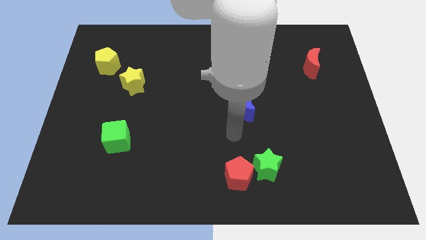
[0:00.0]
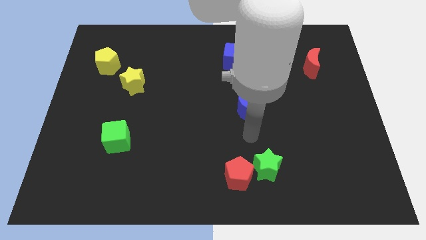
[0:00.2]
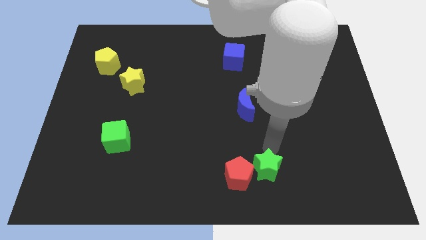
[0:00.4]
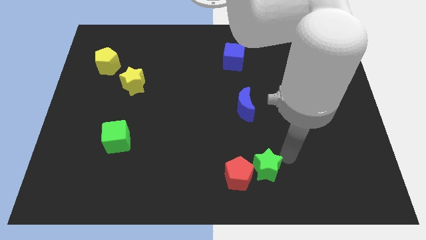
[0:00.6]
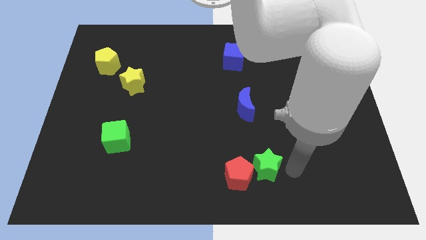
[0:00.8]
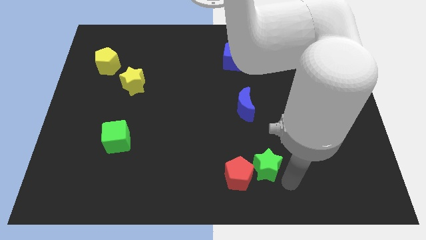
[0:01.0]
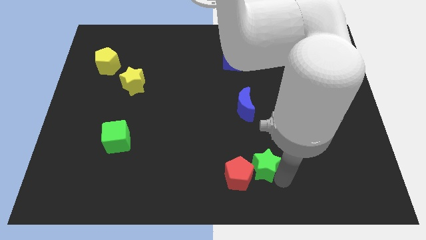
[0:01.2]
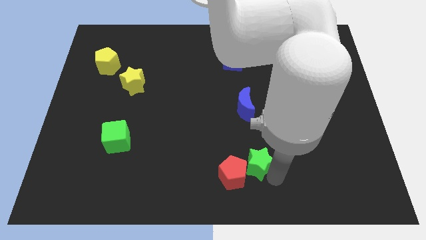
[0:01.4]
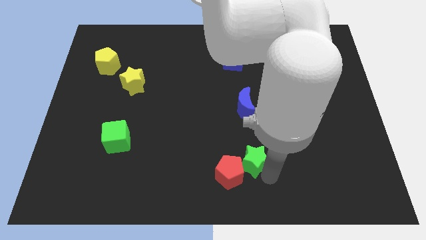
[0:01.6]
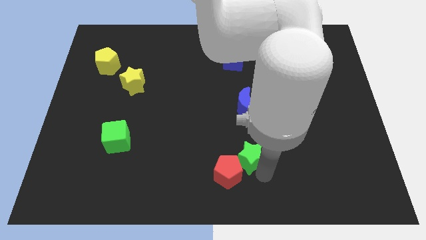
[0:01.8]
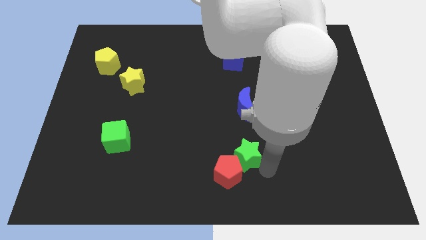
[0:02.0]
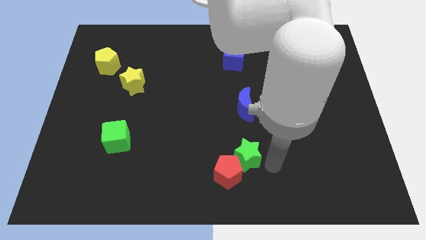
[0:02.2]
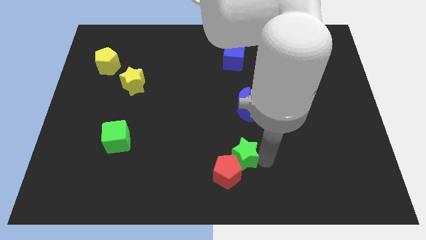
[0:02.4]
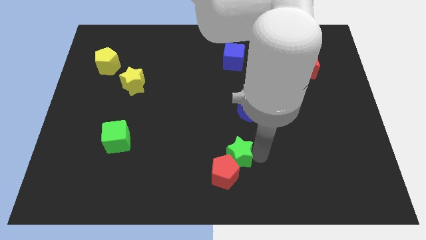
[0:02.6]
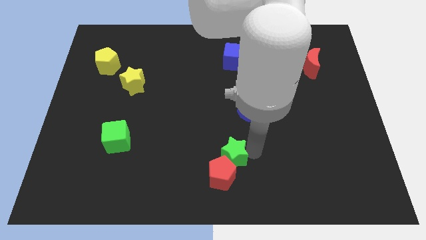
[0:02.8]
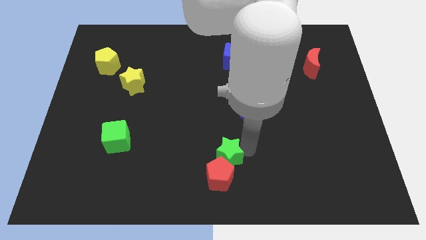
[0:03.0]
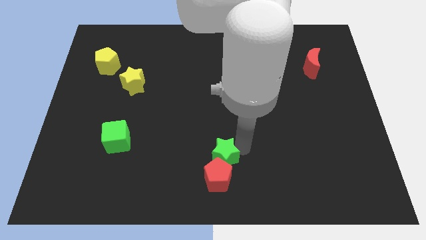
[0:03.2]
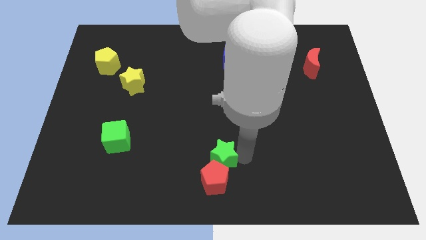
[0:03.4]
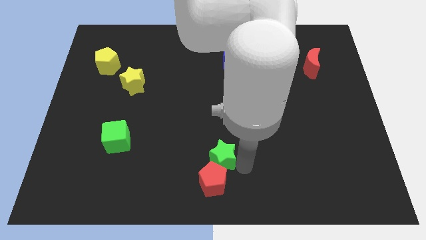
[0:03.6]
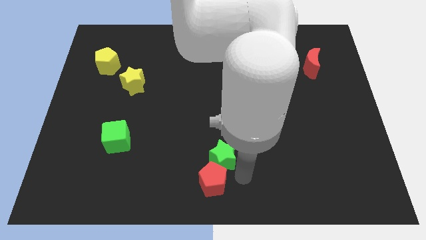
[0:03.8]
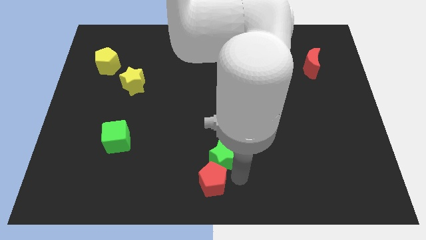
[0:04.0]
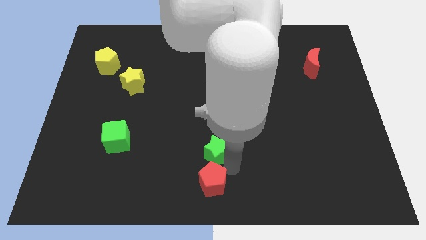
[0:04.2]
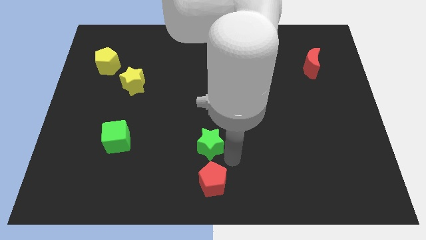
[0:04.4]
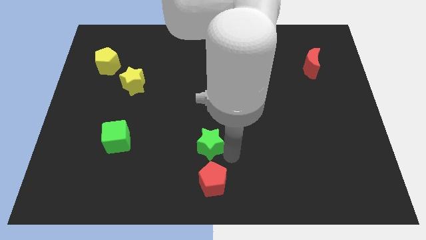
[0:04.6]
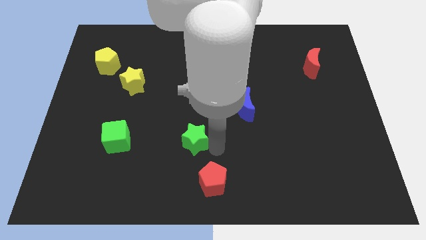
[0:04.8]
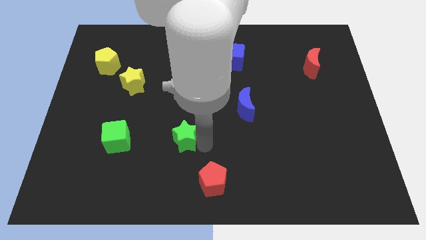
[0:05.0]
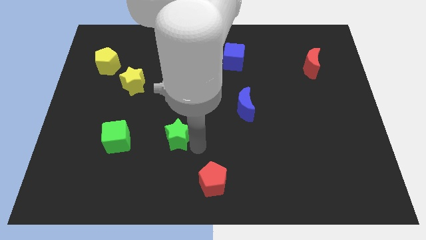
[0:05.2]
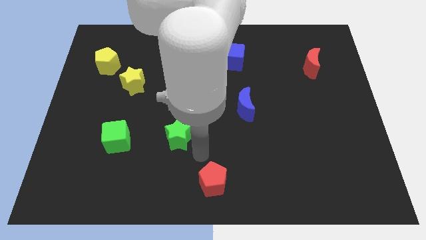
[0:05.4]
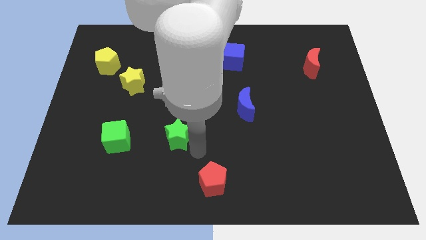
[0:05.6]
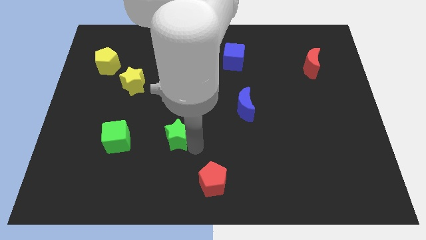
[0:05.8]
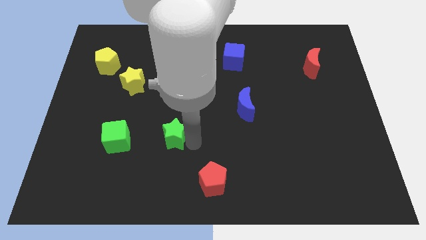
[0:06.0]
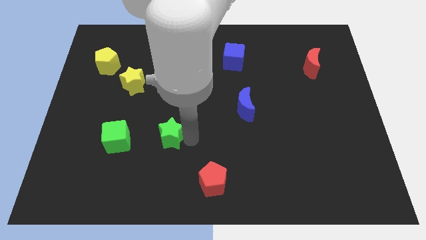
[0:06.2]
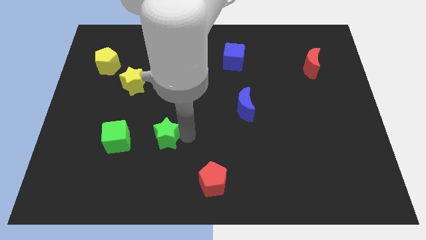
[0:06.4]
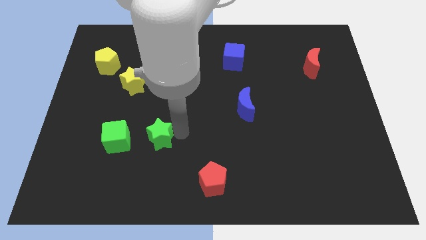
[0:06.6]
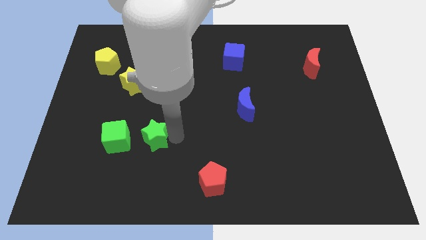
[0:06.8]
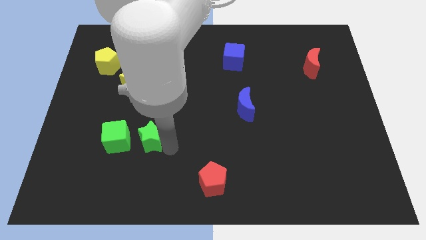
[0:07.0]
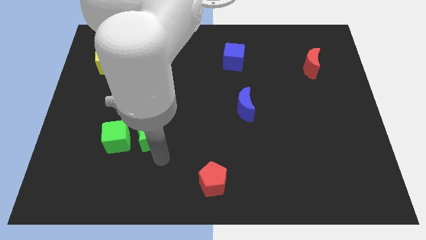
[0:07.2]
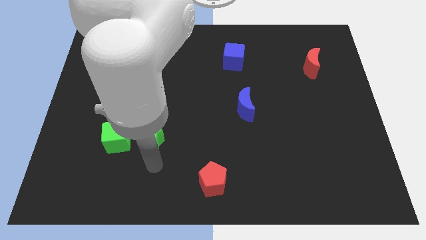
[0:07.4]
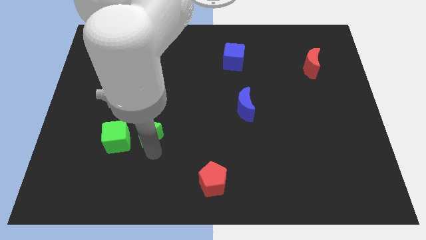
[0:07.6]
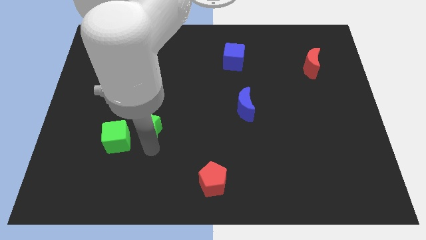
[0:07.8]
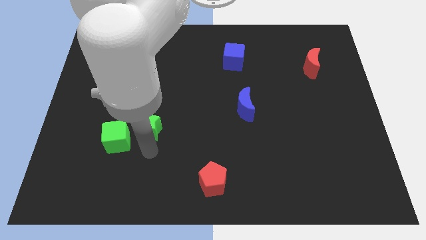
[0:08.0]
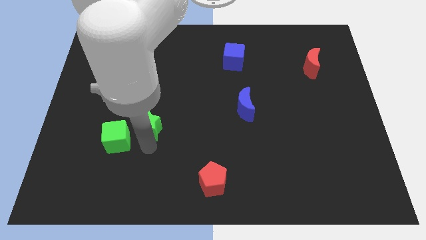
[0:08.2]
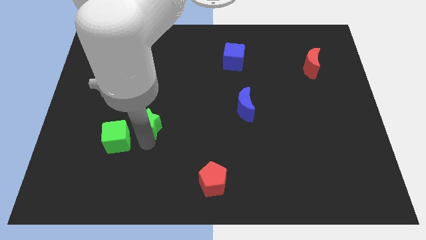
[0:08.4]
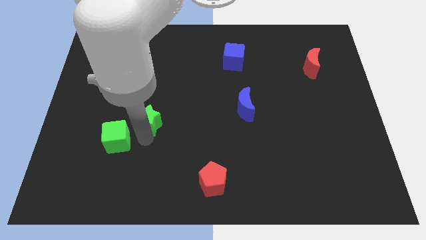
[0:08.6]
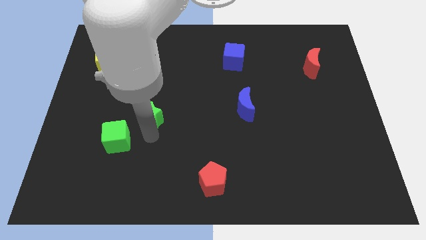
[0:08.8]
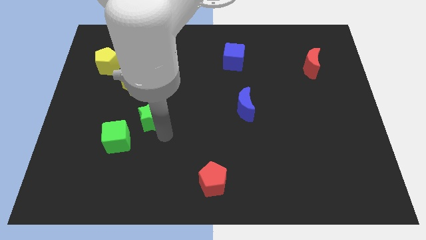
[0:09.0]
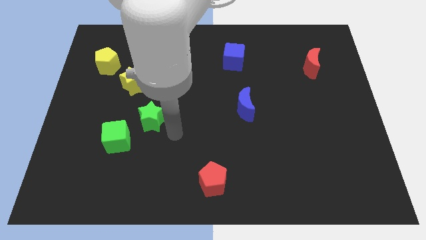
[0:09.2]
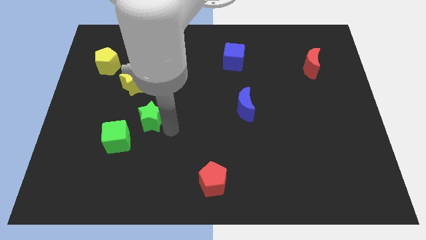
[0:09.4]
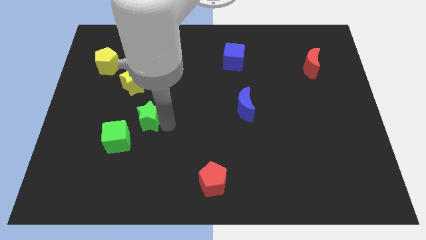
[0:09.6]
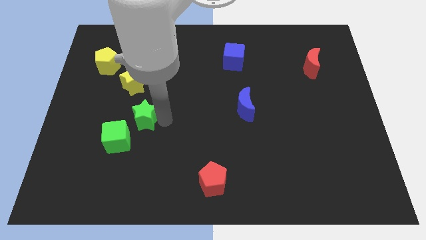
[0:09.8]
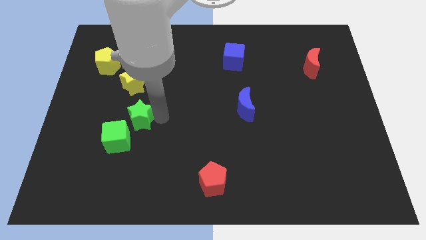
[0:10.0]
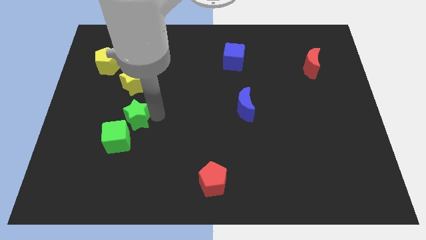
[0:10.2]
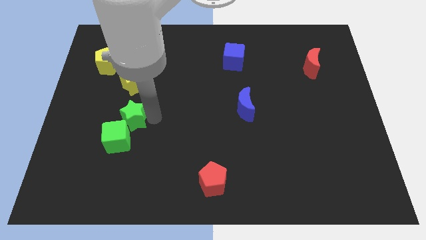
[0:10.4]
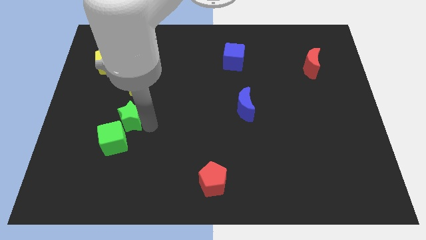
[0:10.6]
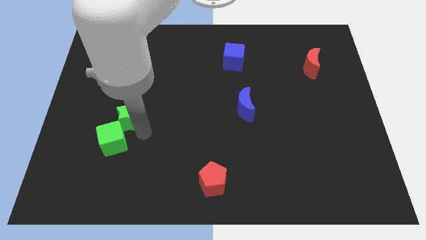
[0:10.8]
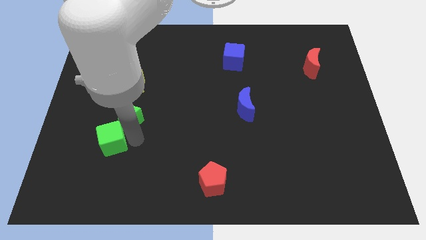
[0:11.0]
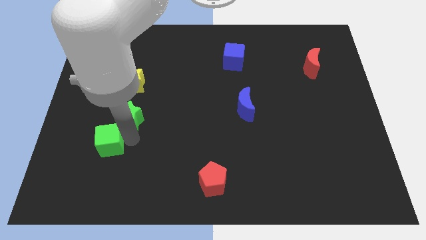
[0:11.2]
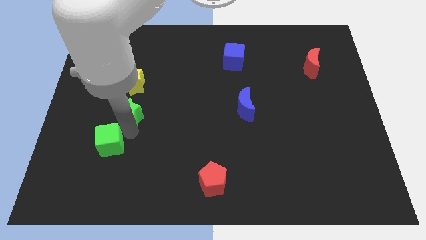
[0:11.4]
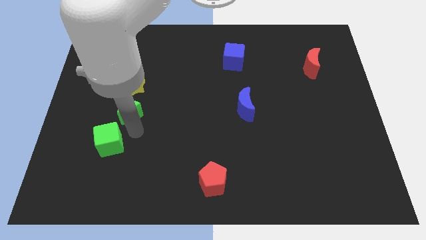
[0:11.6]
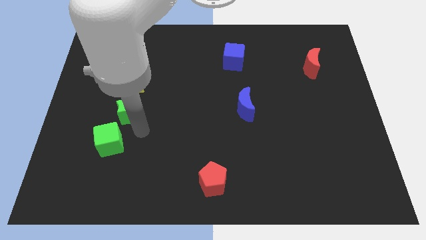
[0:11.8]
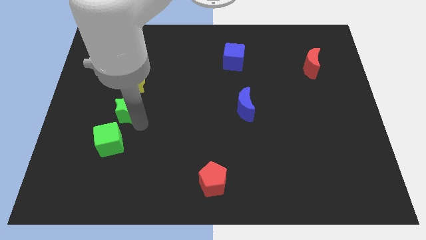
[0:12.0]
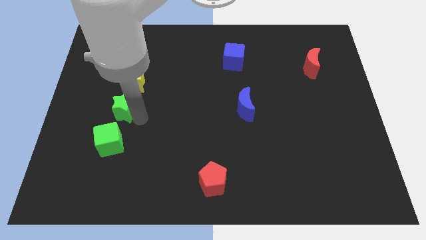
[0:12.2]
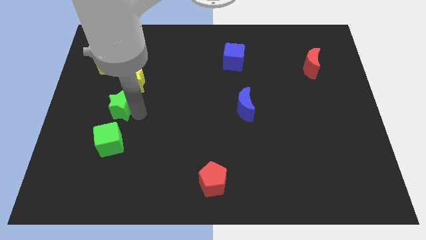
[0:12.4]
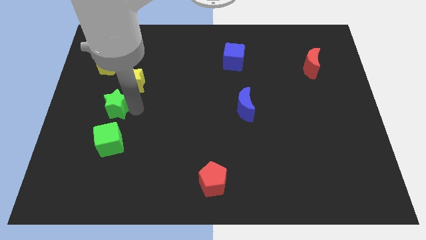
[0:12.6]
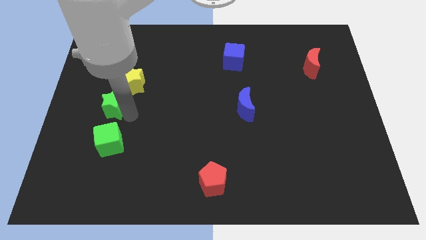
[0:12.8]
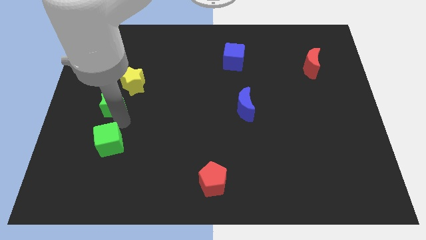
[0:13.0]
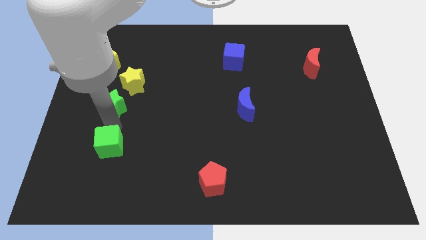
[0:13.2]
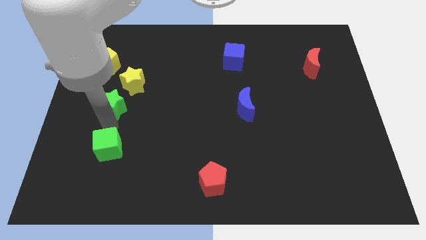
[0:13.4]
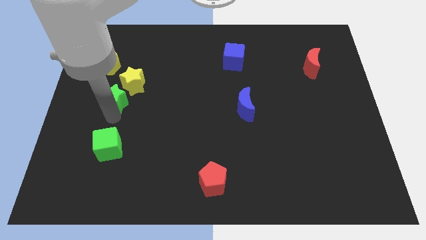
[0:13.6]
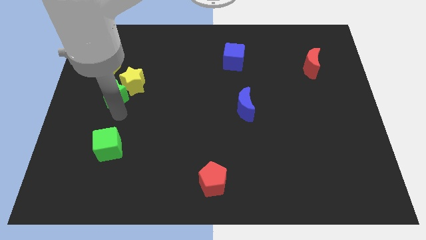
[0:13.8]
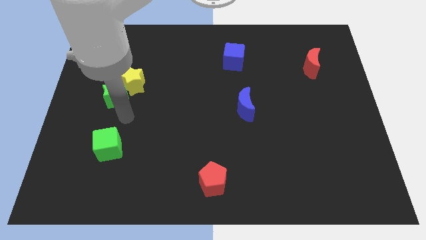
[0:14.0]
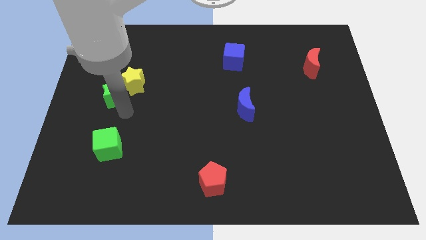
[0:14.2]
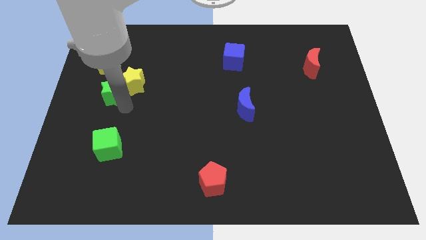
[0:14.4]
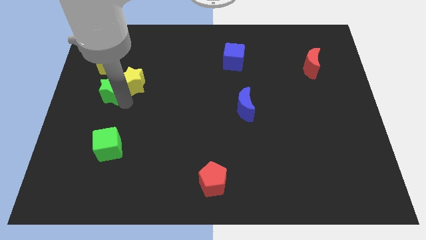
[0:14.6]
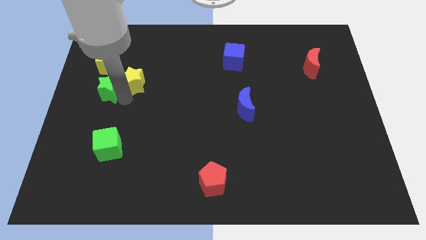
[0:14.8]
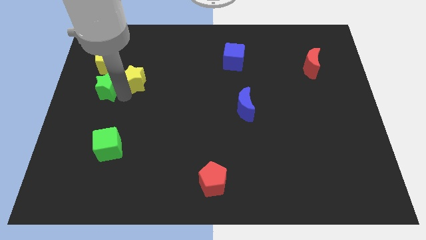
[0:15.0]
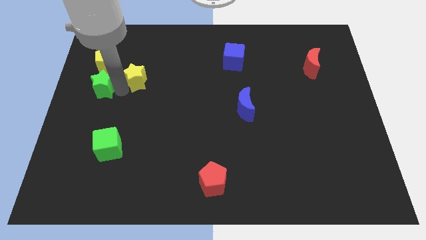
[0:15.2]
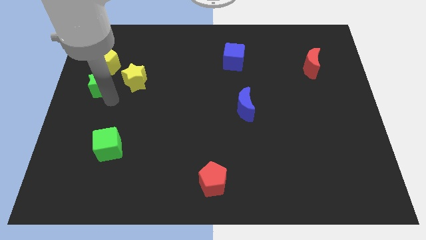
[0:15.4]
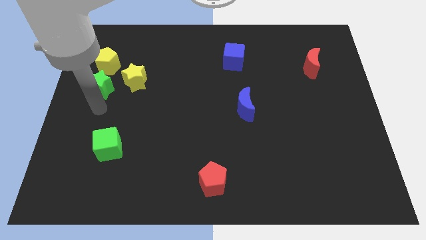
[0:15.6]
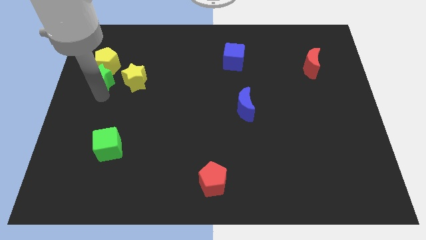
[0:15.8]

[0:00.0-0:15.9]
slide the green star close to the yellow pentagon
